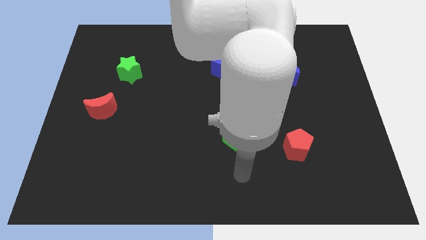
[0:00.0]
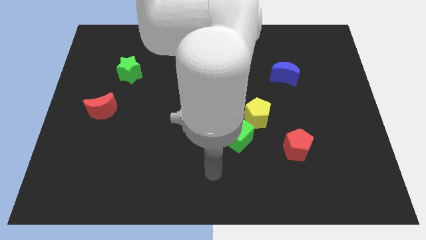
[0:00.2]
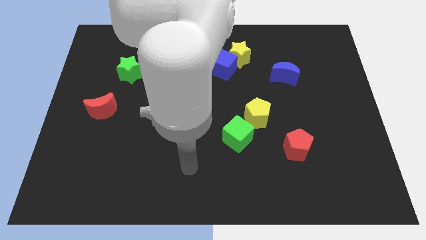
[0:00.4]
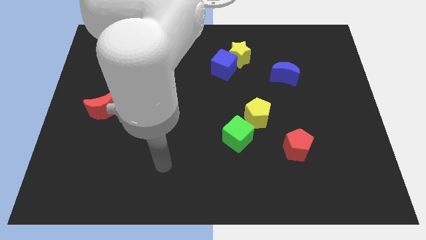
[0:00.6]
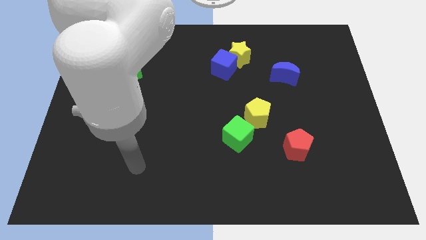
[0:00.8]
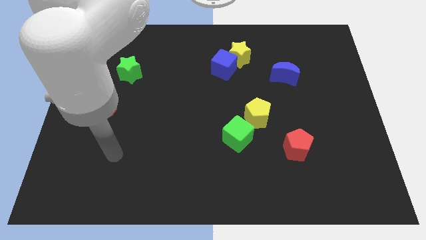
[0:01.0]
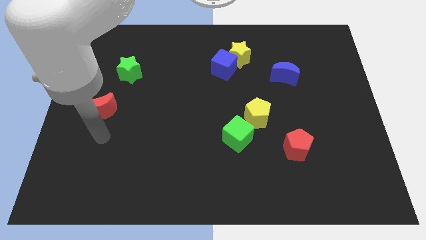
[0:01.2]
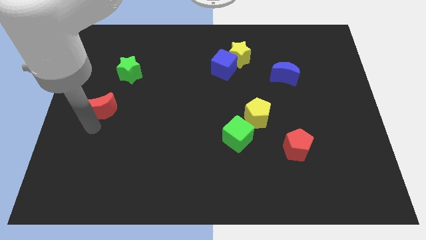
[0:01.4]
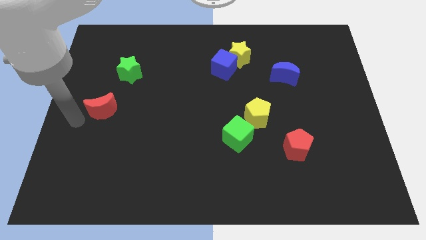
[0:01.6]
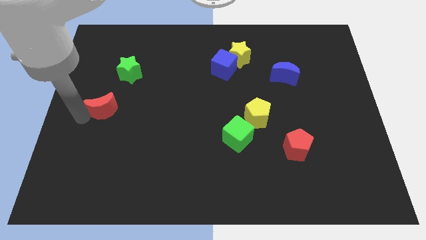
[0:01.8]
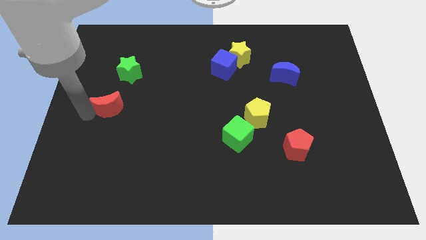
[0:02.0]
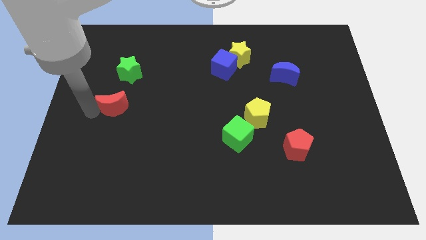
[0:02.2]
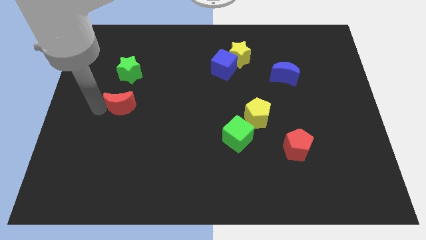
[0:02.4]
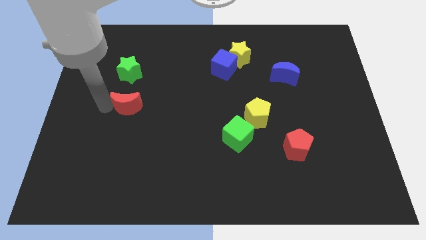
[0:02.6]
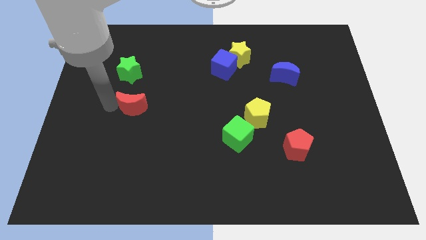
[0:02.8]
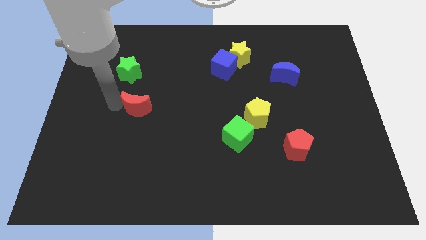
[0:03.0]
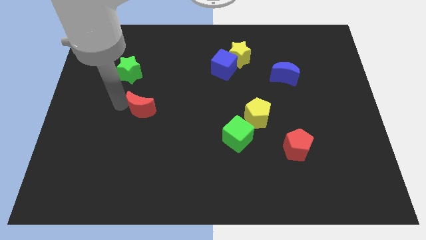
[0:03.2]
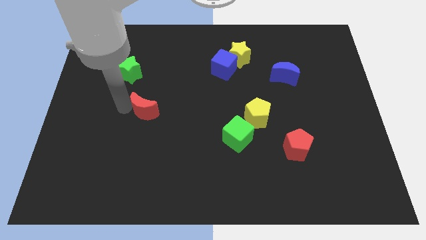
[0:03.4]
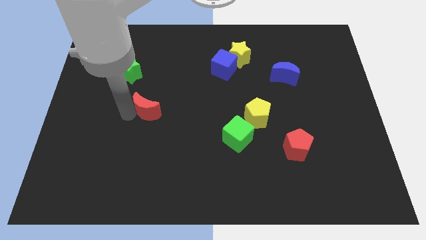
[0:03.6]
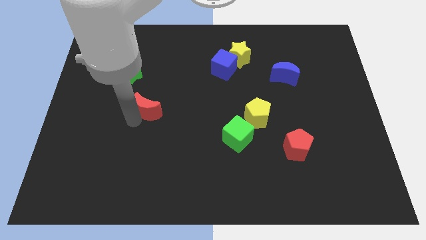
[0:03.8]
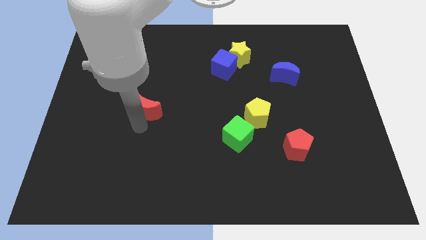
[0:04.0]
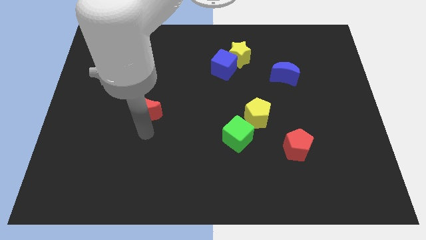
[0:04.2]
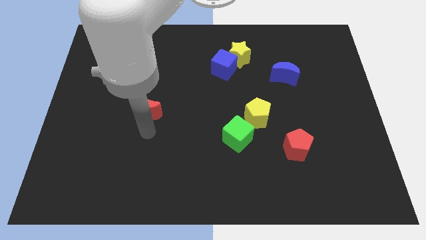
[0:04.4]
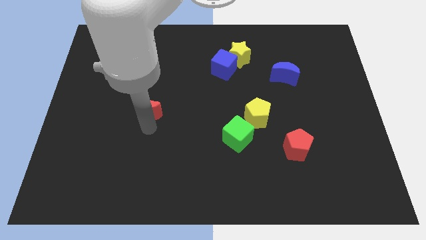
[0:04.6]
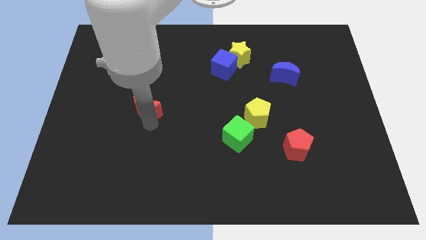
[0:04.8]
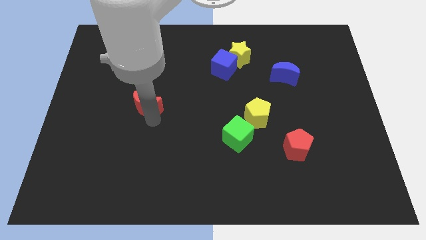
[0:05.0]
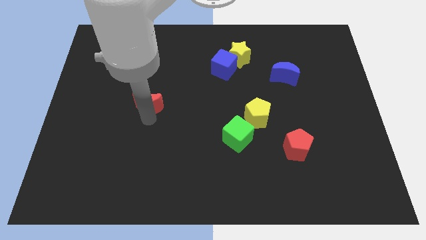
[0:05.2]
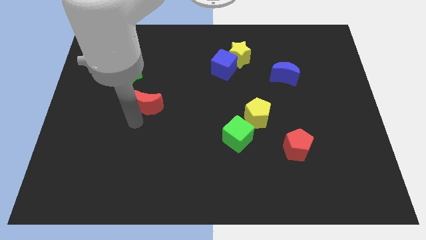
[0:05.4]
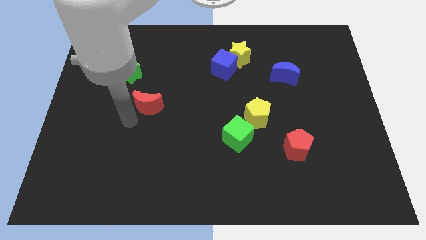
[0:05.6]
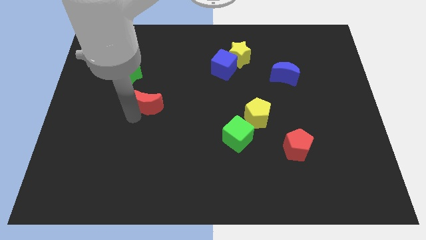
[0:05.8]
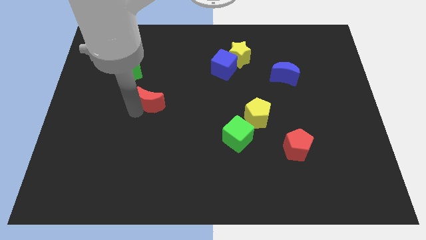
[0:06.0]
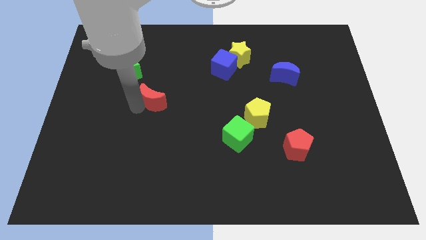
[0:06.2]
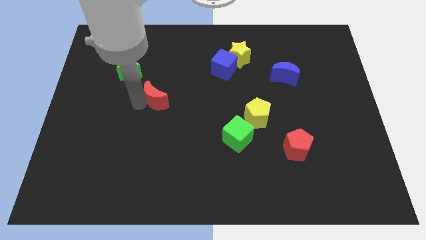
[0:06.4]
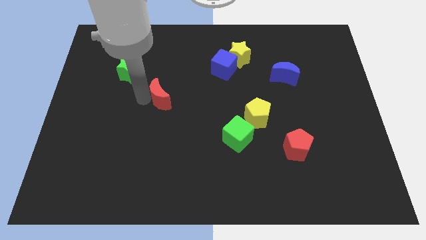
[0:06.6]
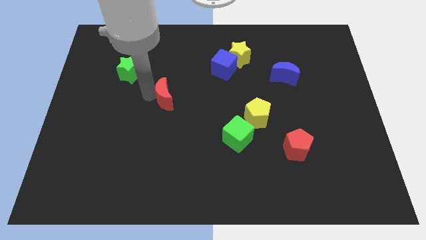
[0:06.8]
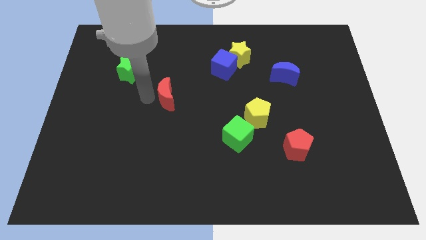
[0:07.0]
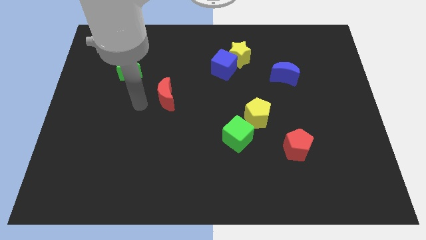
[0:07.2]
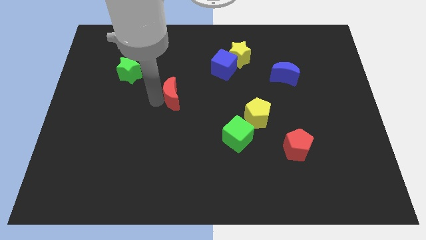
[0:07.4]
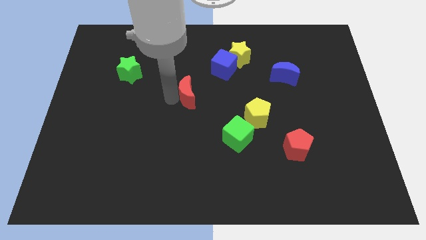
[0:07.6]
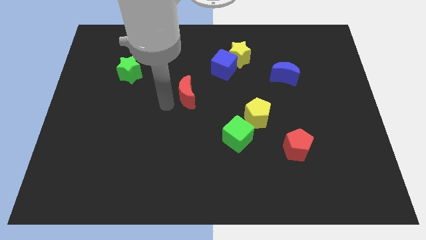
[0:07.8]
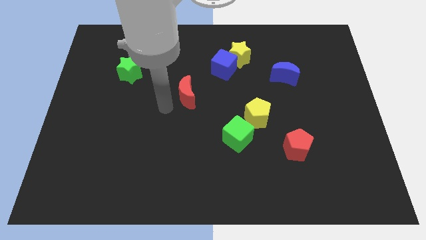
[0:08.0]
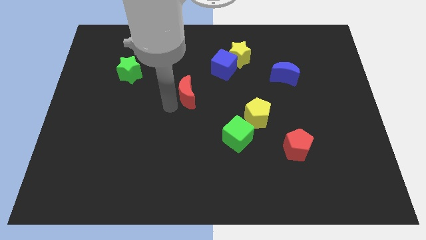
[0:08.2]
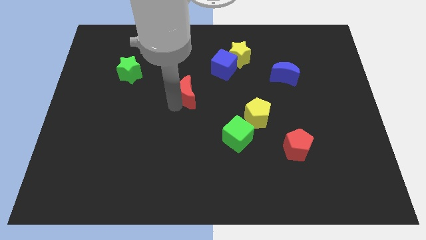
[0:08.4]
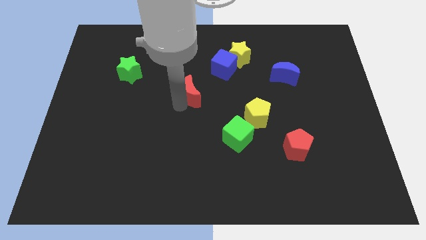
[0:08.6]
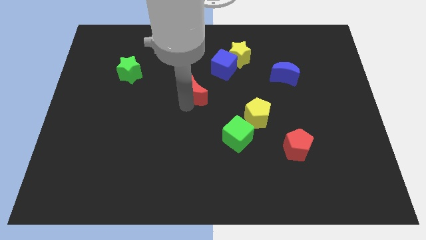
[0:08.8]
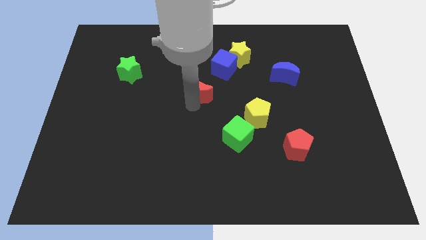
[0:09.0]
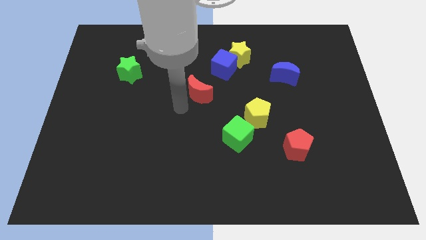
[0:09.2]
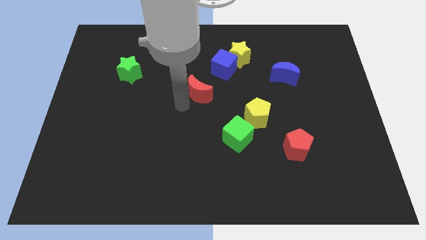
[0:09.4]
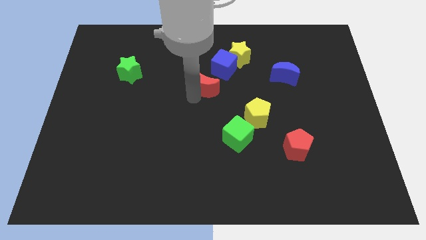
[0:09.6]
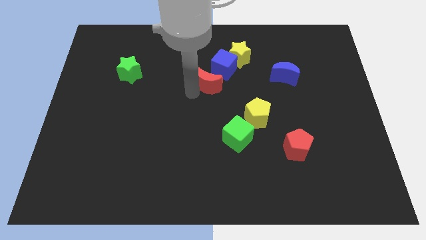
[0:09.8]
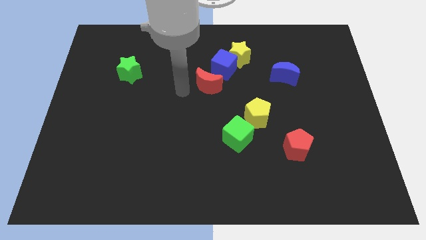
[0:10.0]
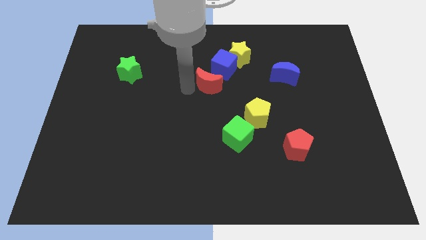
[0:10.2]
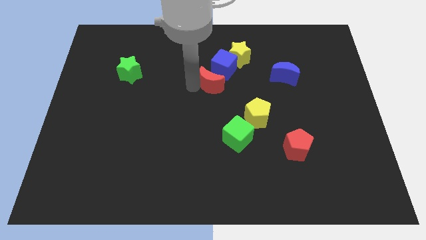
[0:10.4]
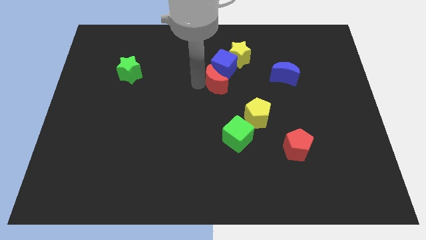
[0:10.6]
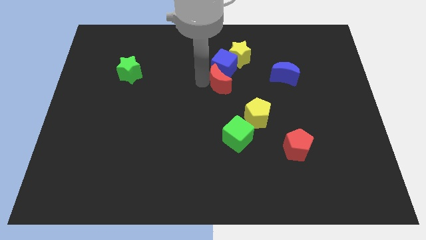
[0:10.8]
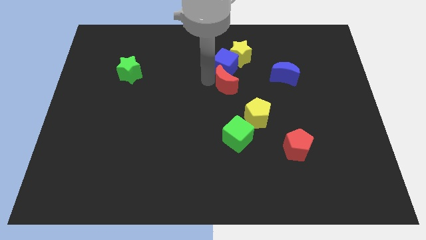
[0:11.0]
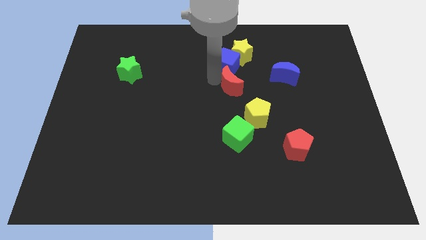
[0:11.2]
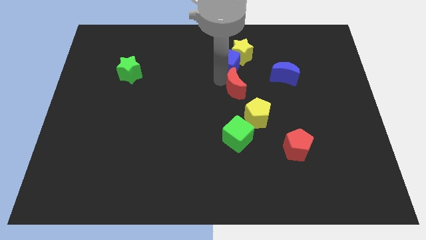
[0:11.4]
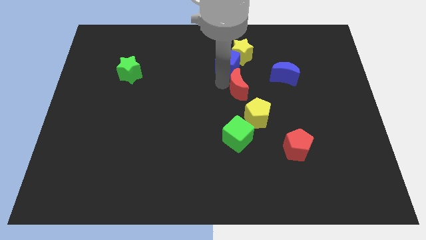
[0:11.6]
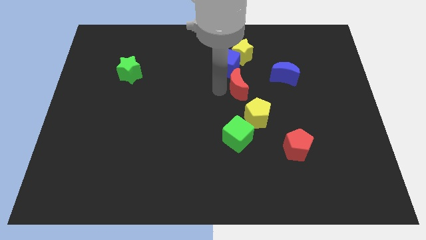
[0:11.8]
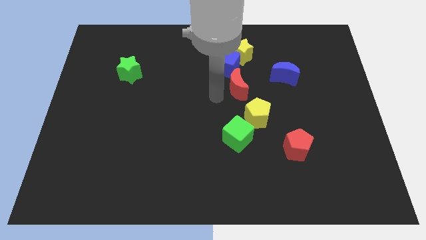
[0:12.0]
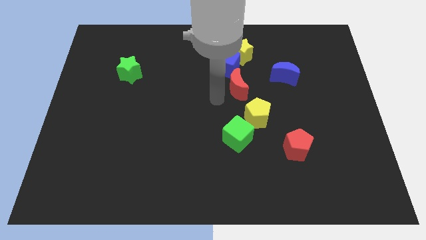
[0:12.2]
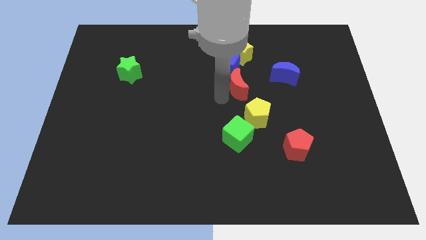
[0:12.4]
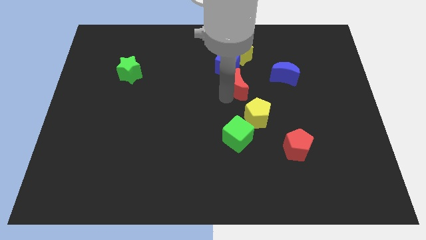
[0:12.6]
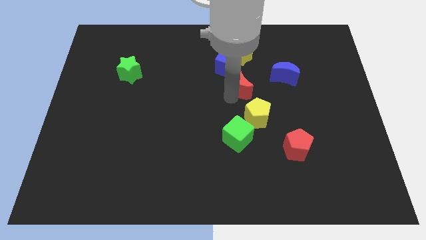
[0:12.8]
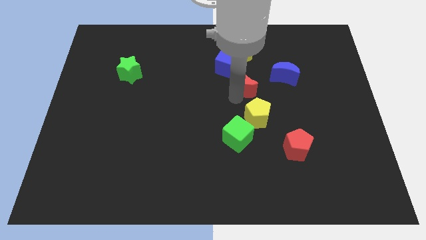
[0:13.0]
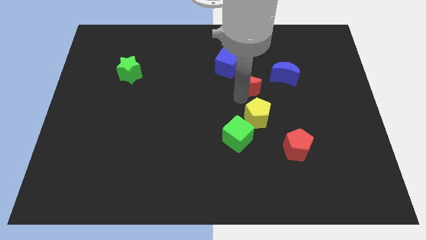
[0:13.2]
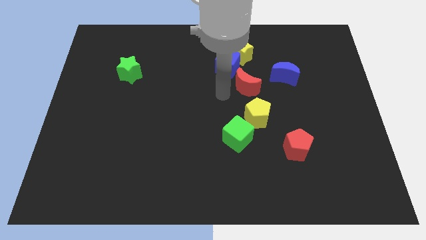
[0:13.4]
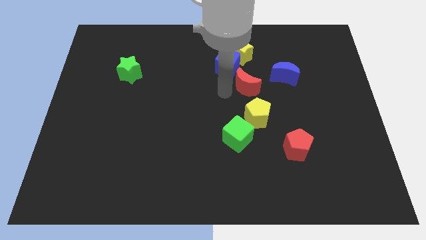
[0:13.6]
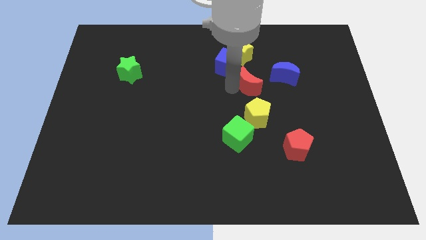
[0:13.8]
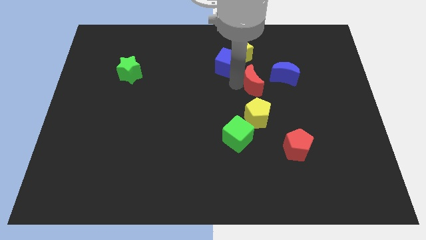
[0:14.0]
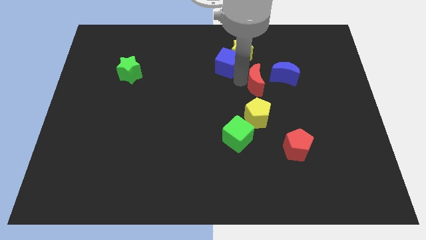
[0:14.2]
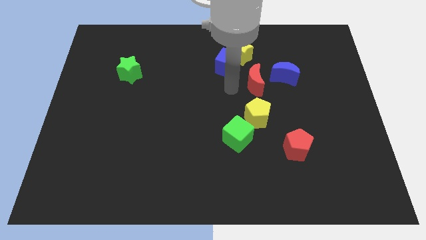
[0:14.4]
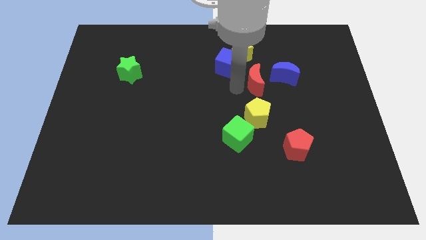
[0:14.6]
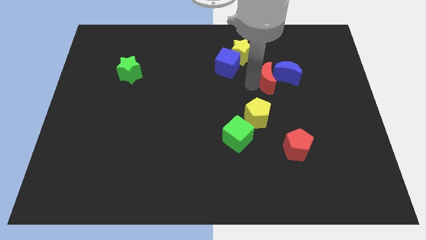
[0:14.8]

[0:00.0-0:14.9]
push the red moon towards the blue moon
